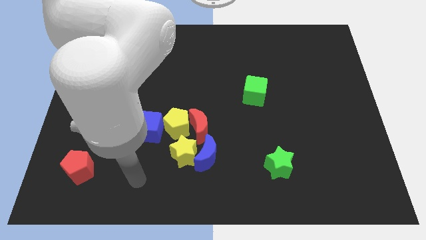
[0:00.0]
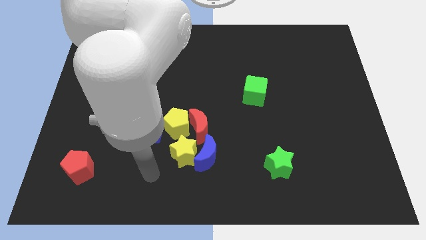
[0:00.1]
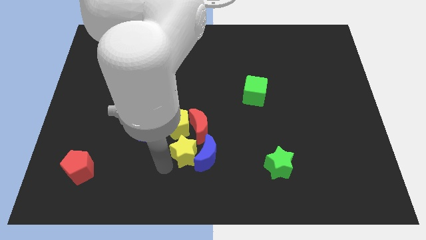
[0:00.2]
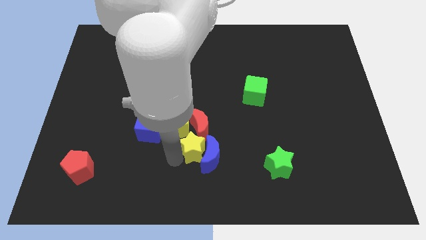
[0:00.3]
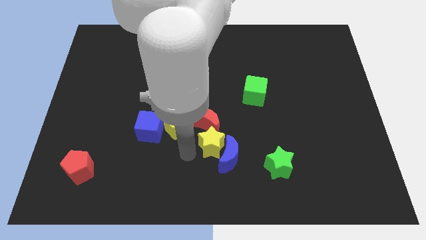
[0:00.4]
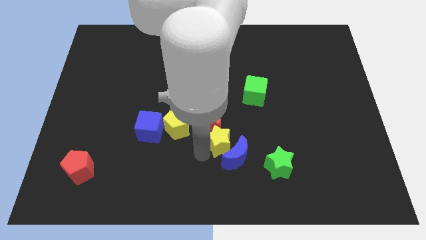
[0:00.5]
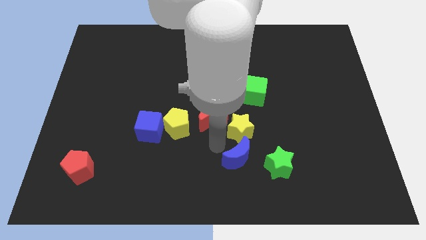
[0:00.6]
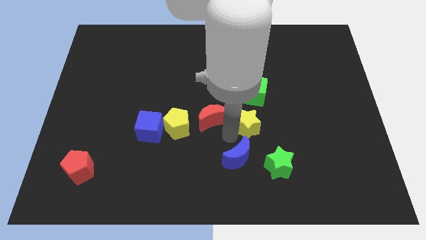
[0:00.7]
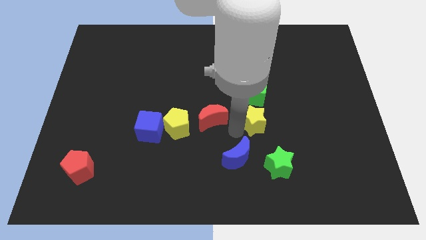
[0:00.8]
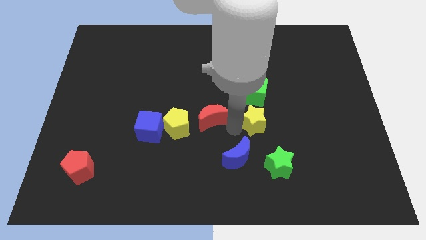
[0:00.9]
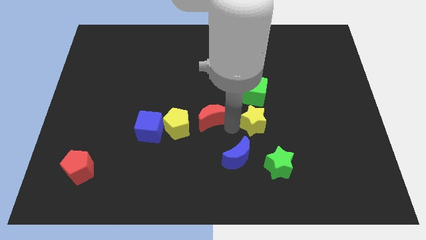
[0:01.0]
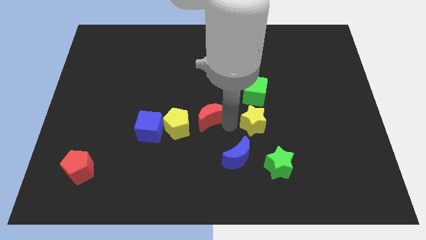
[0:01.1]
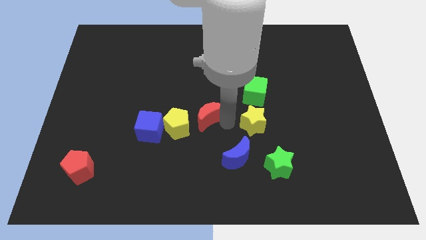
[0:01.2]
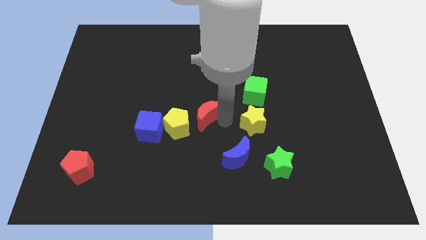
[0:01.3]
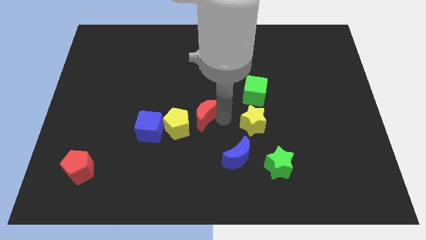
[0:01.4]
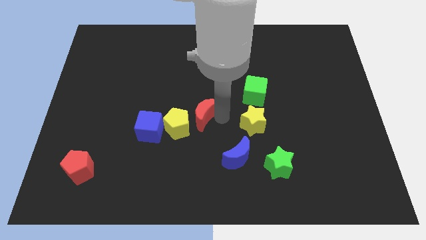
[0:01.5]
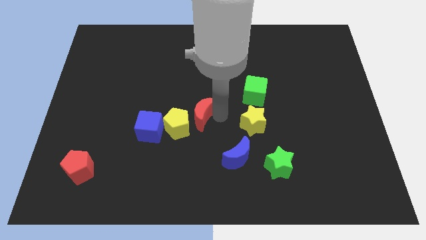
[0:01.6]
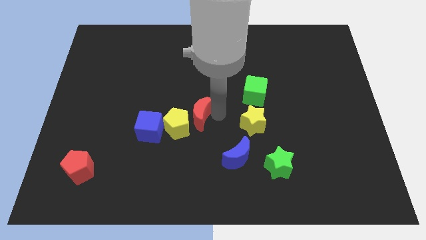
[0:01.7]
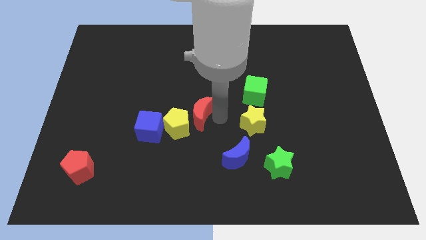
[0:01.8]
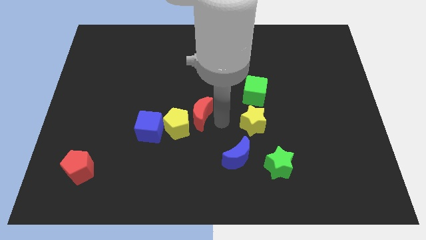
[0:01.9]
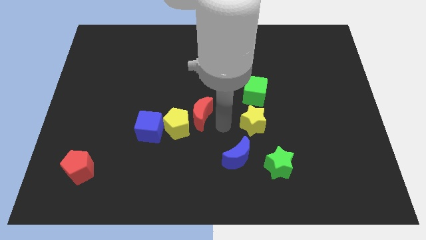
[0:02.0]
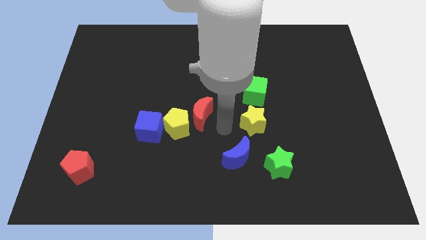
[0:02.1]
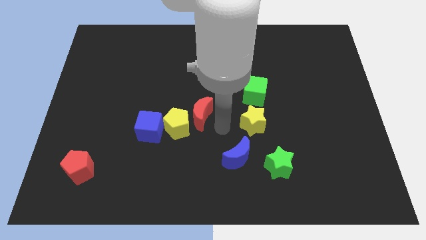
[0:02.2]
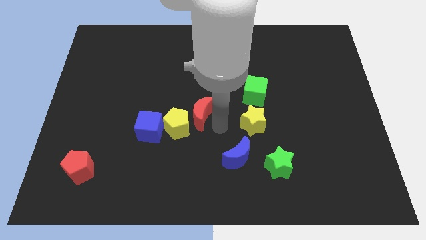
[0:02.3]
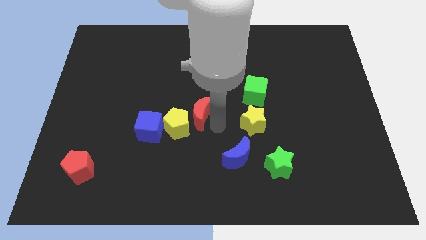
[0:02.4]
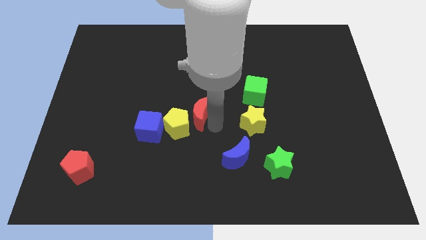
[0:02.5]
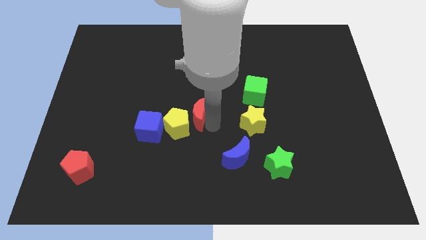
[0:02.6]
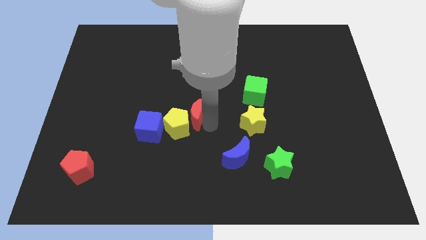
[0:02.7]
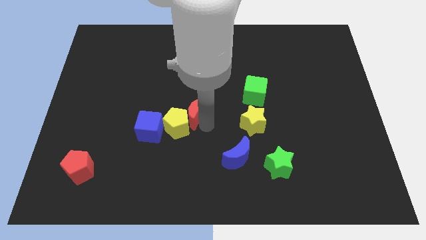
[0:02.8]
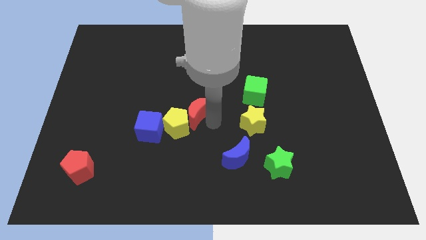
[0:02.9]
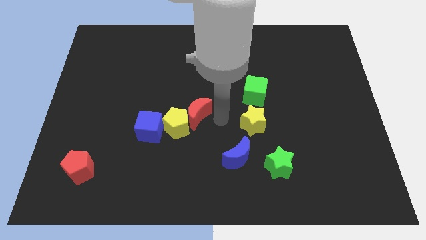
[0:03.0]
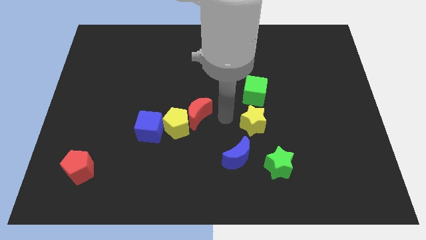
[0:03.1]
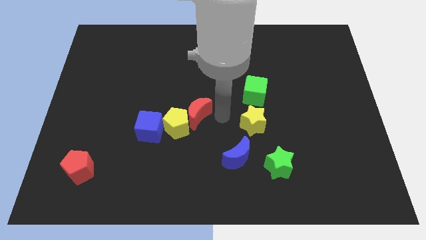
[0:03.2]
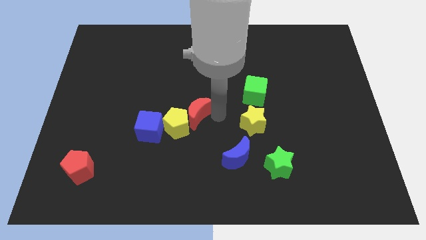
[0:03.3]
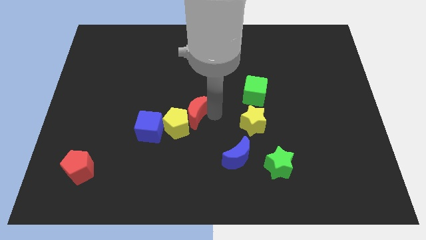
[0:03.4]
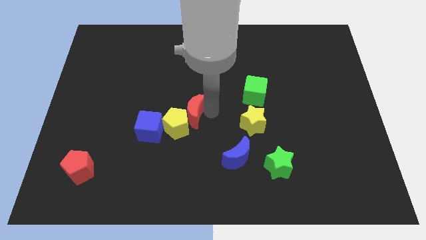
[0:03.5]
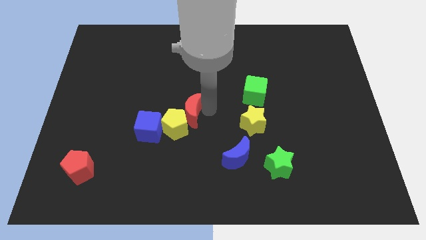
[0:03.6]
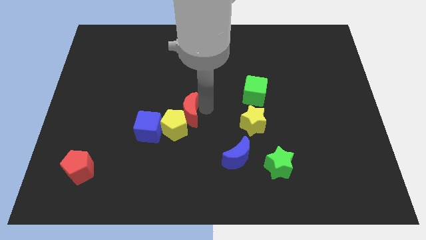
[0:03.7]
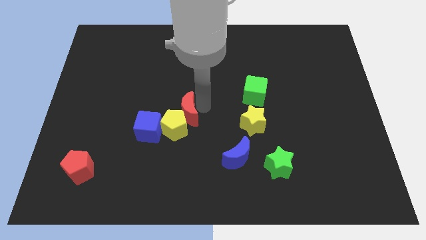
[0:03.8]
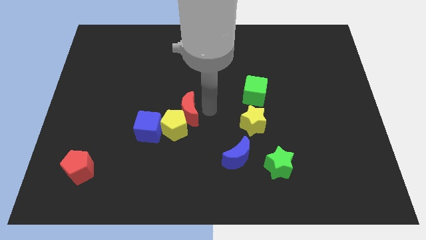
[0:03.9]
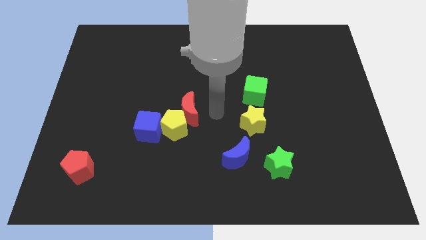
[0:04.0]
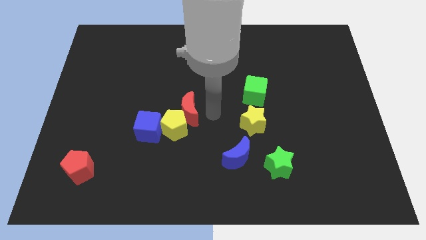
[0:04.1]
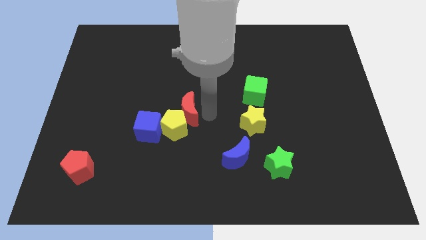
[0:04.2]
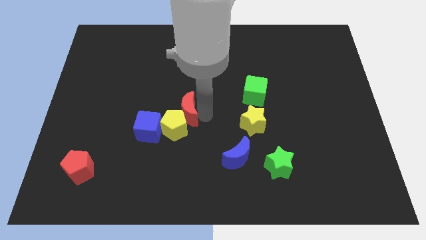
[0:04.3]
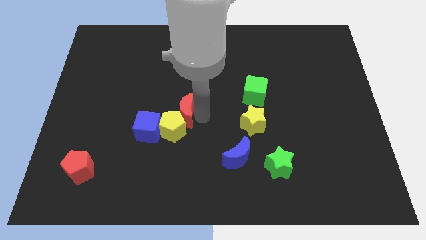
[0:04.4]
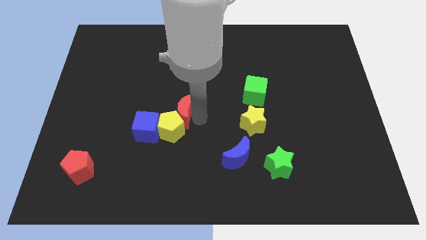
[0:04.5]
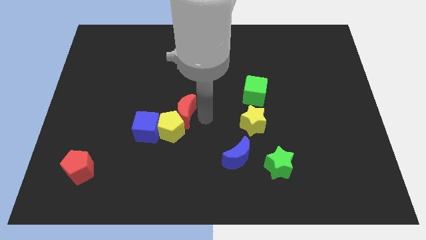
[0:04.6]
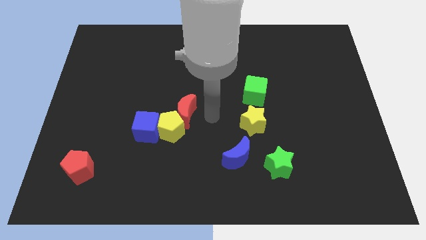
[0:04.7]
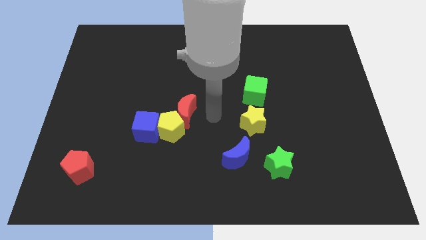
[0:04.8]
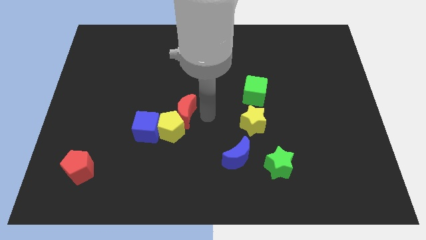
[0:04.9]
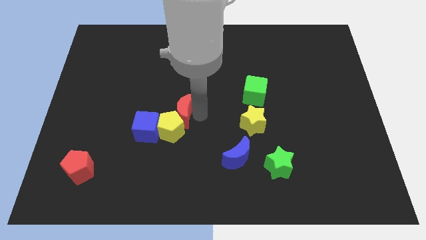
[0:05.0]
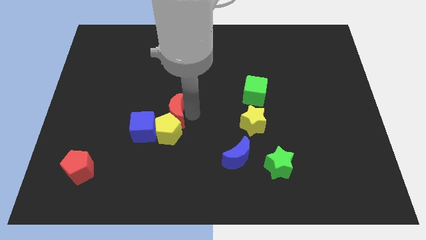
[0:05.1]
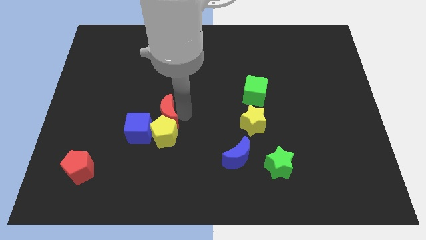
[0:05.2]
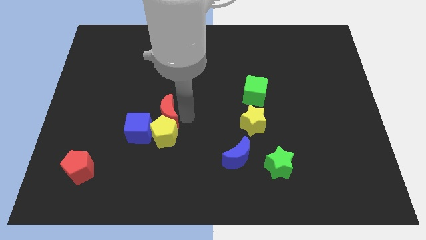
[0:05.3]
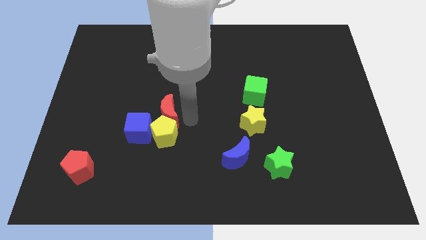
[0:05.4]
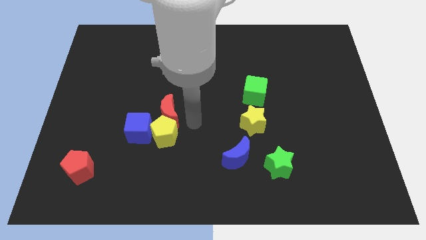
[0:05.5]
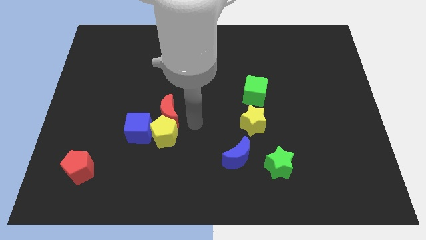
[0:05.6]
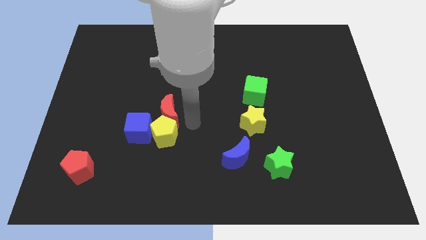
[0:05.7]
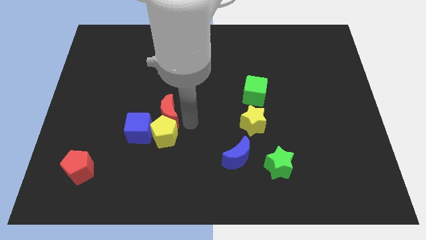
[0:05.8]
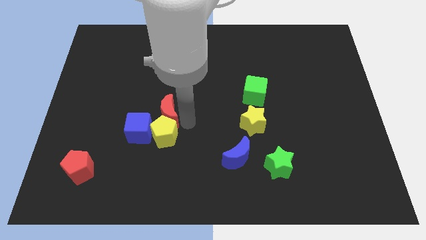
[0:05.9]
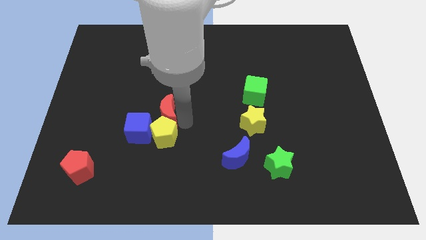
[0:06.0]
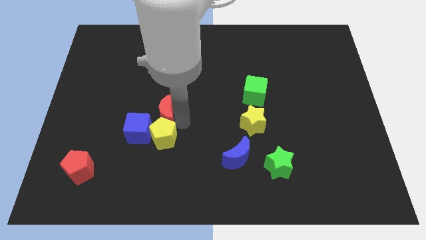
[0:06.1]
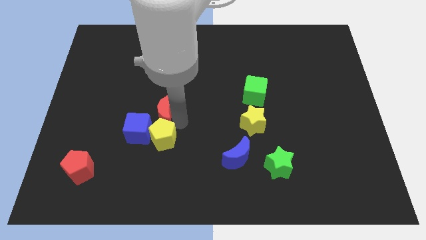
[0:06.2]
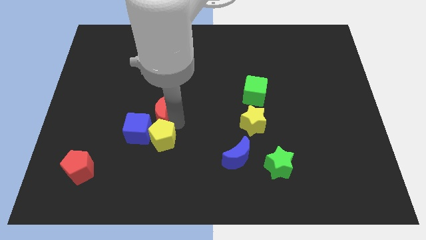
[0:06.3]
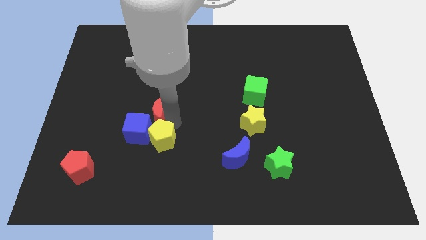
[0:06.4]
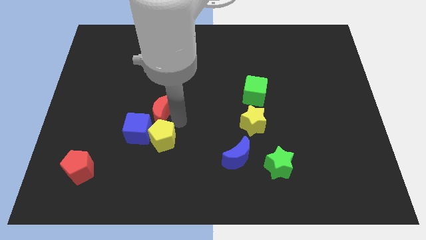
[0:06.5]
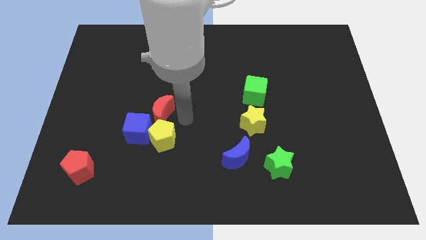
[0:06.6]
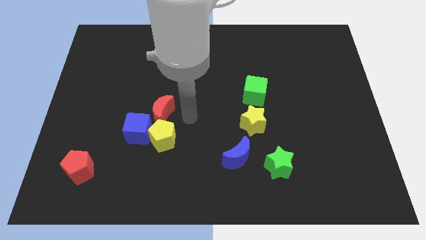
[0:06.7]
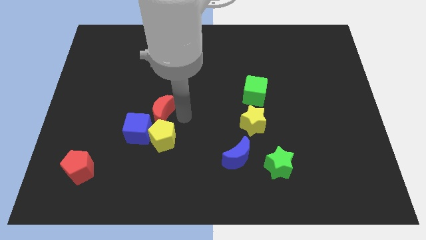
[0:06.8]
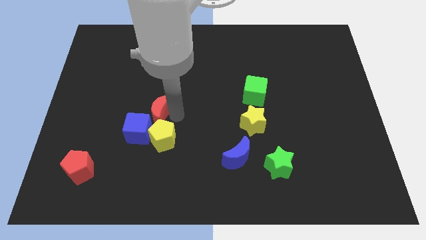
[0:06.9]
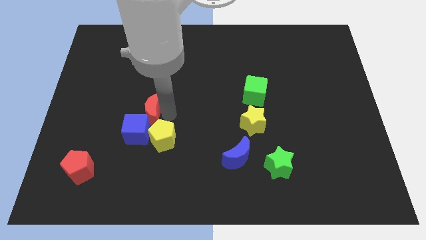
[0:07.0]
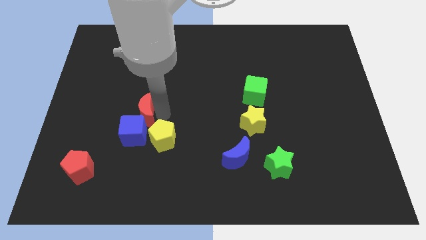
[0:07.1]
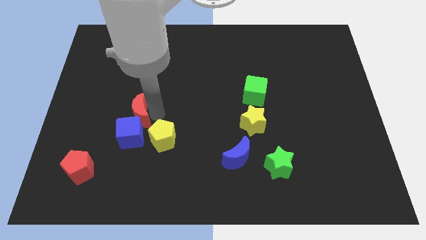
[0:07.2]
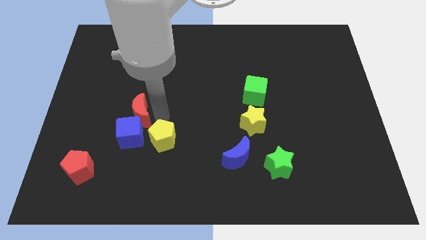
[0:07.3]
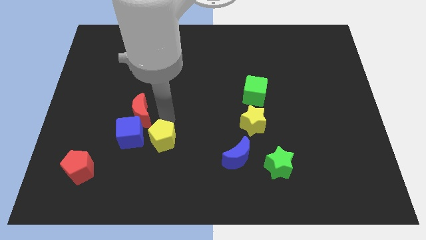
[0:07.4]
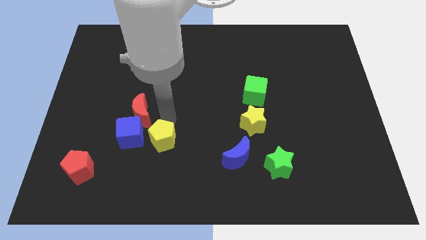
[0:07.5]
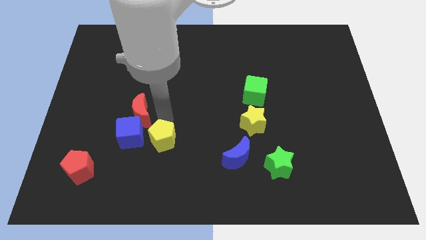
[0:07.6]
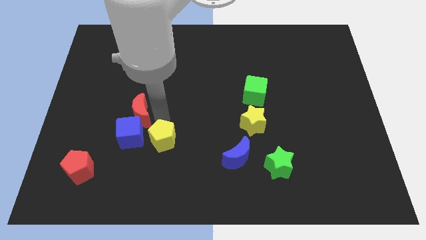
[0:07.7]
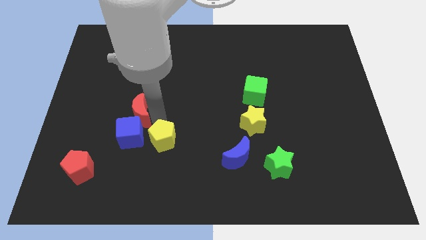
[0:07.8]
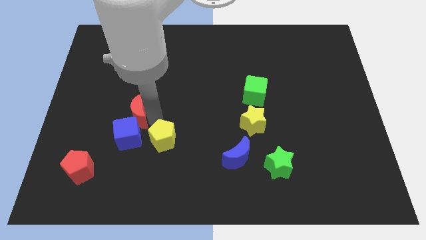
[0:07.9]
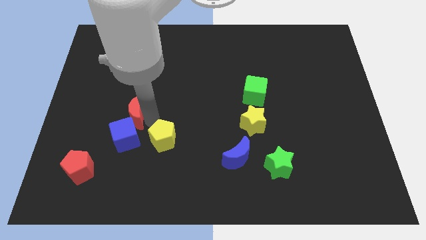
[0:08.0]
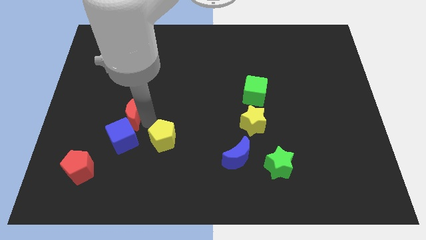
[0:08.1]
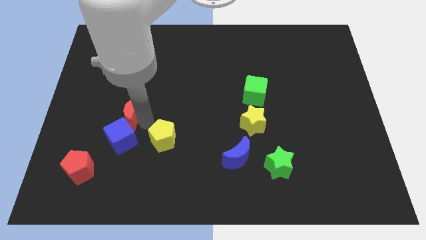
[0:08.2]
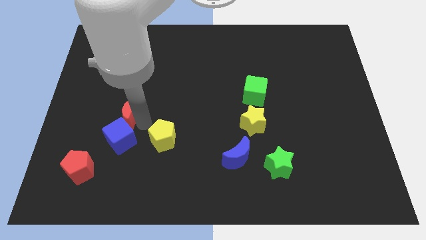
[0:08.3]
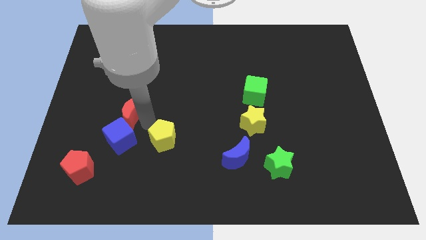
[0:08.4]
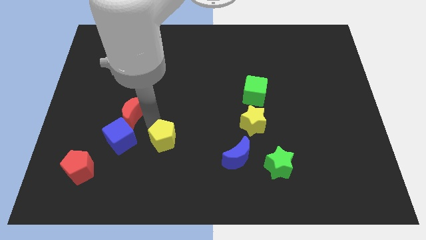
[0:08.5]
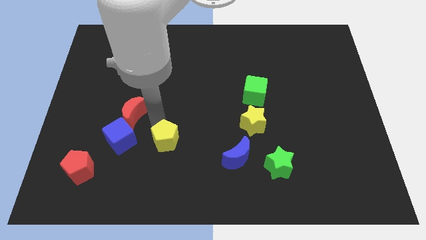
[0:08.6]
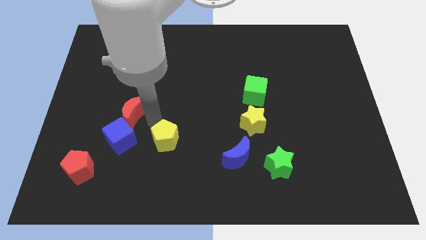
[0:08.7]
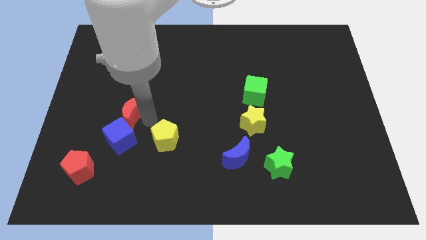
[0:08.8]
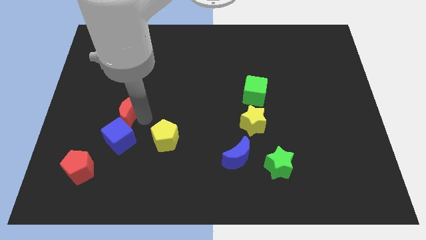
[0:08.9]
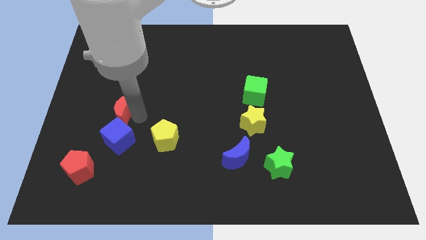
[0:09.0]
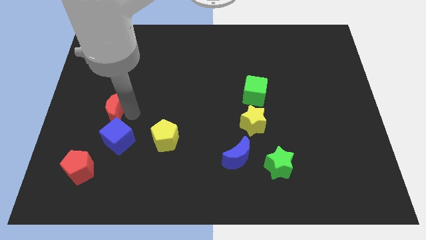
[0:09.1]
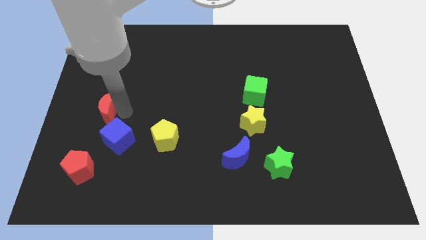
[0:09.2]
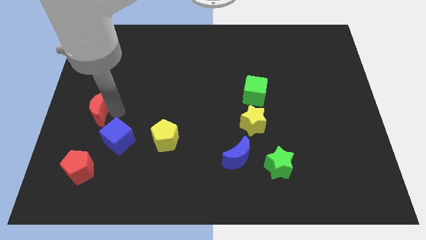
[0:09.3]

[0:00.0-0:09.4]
push the red moon to the center left
